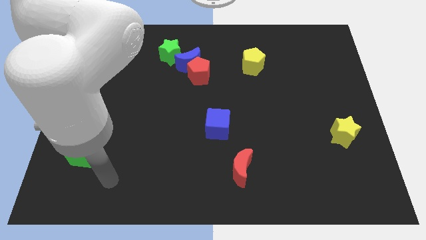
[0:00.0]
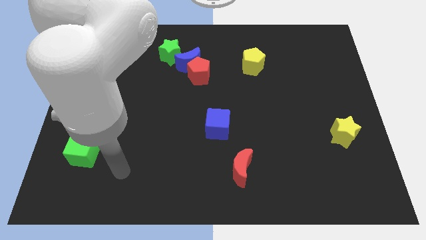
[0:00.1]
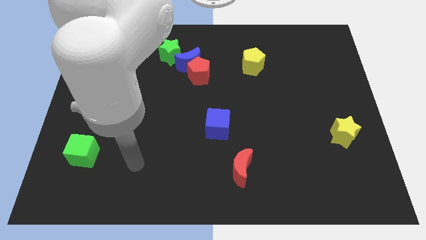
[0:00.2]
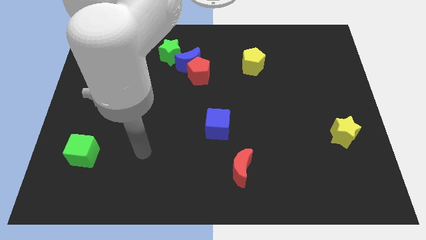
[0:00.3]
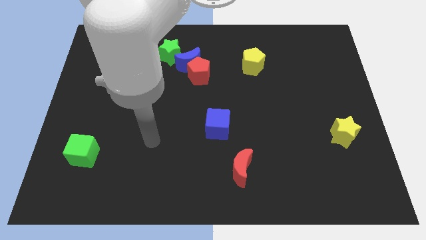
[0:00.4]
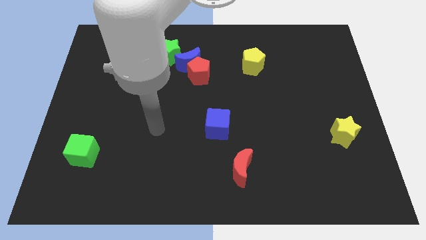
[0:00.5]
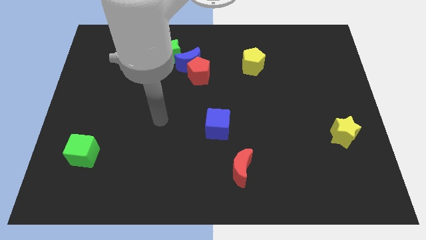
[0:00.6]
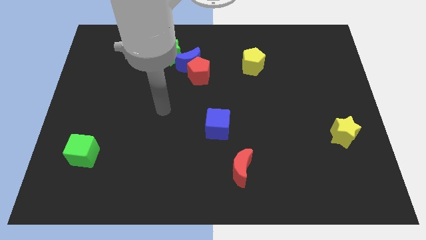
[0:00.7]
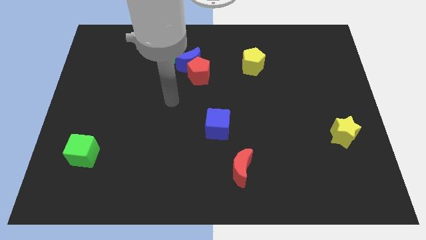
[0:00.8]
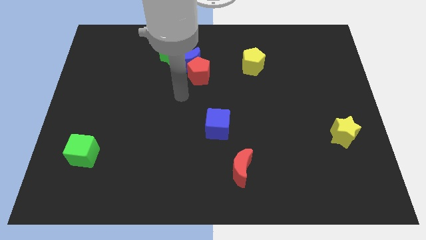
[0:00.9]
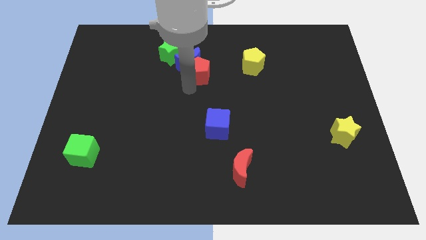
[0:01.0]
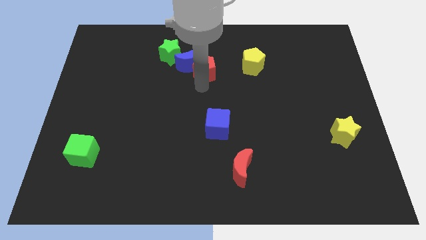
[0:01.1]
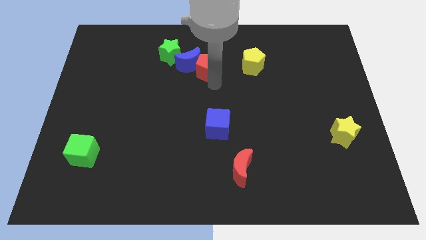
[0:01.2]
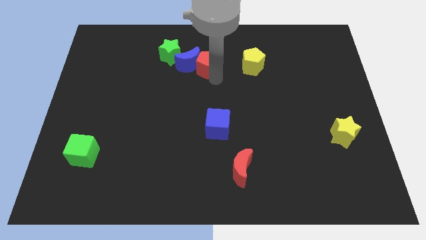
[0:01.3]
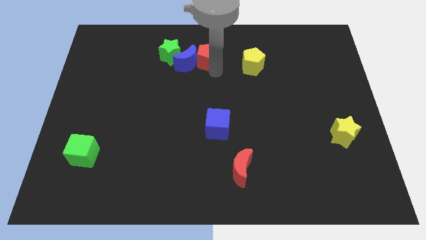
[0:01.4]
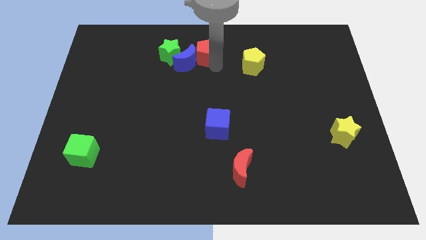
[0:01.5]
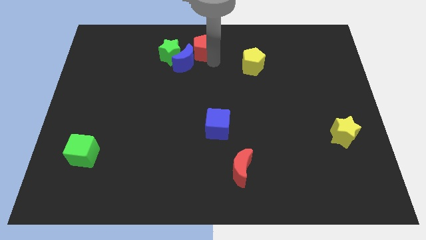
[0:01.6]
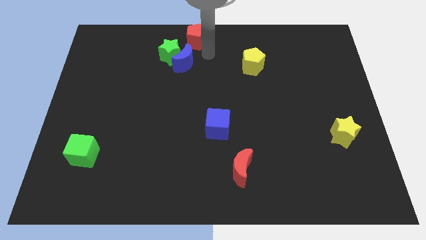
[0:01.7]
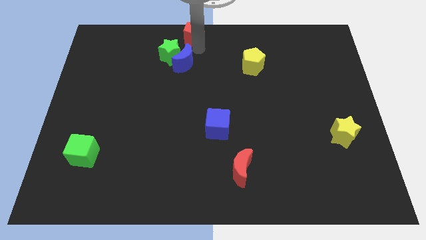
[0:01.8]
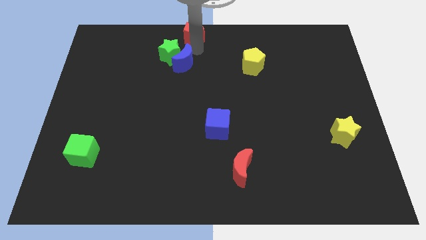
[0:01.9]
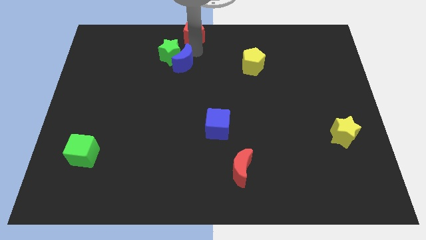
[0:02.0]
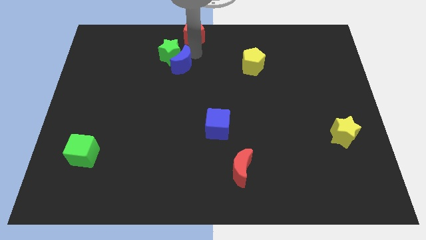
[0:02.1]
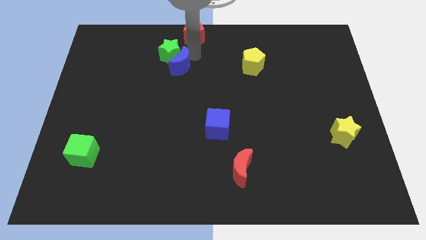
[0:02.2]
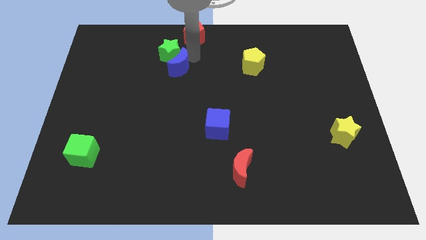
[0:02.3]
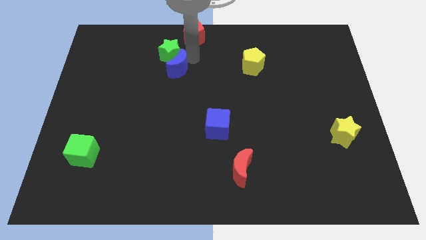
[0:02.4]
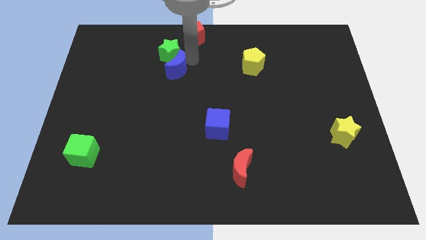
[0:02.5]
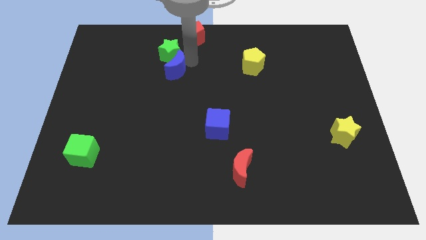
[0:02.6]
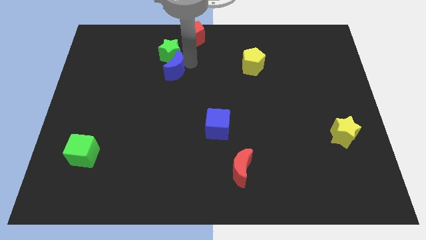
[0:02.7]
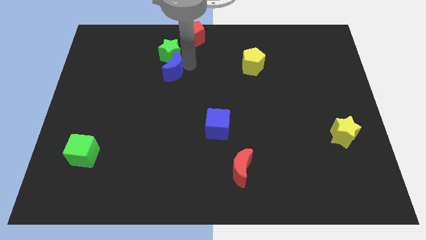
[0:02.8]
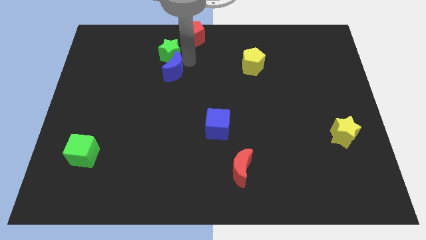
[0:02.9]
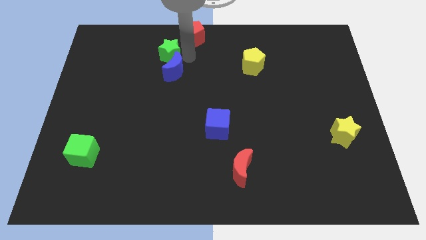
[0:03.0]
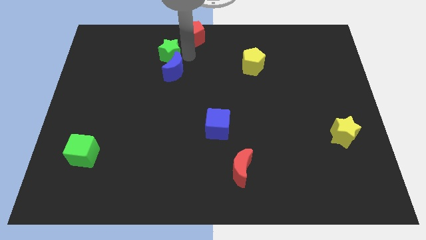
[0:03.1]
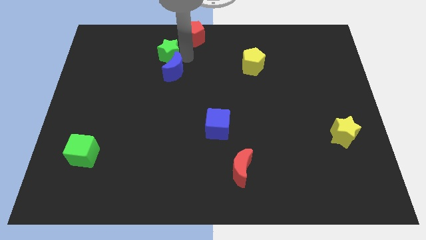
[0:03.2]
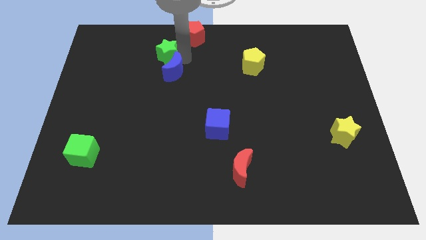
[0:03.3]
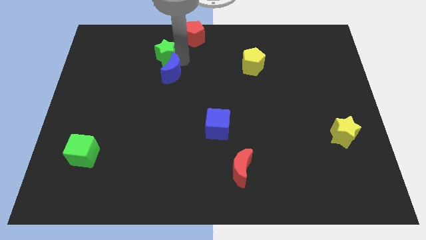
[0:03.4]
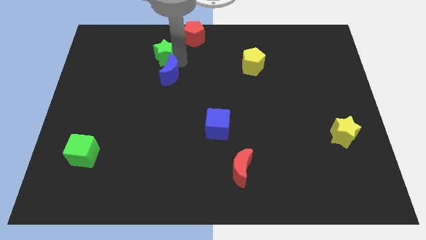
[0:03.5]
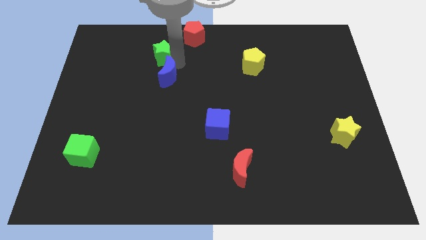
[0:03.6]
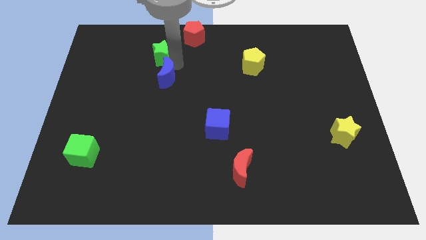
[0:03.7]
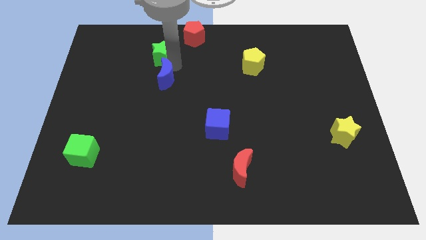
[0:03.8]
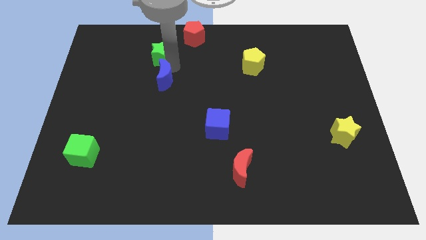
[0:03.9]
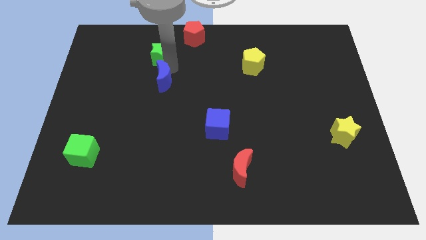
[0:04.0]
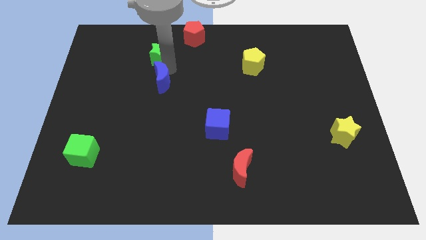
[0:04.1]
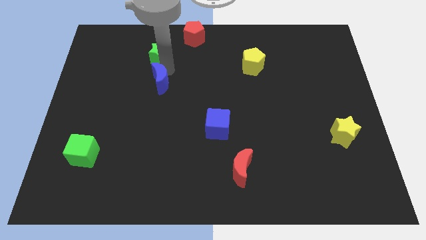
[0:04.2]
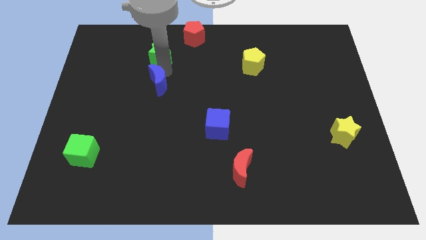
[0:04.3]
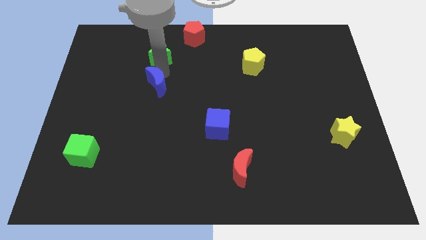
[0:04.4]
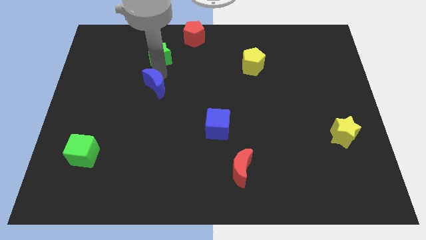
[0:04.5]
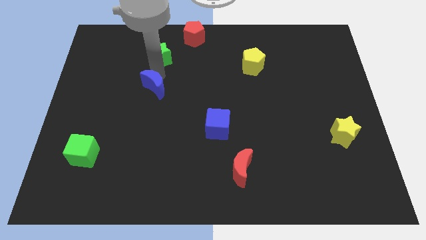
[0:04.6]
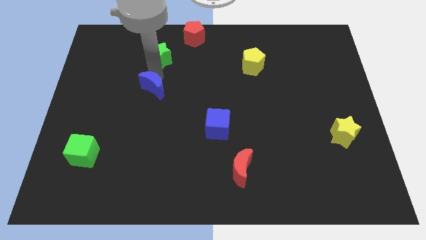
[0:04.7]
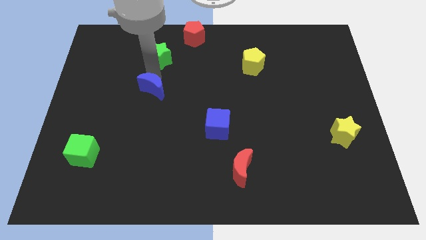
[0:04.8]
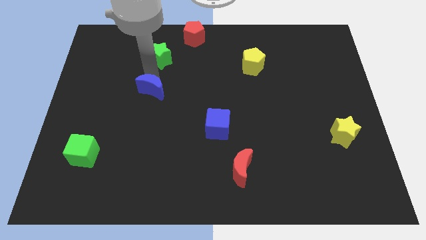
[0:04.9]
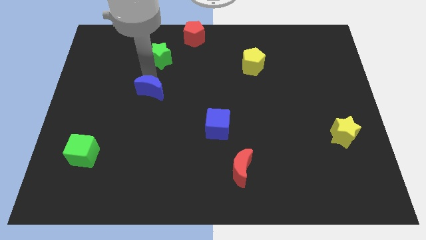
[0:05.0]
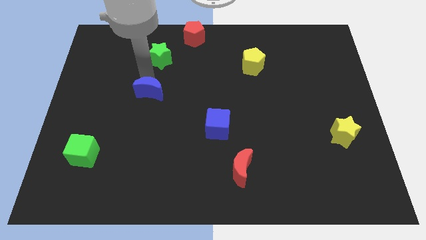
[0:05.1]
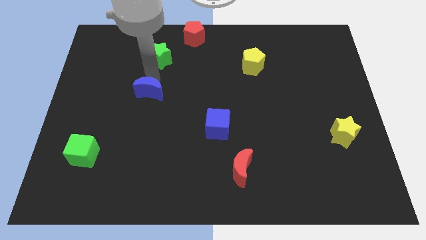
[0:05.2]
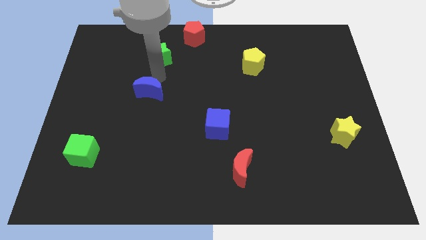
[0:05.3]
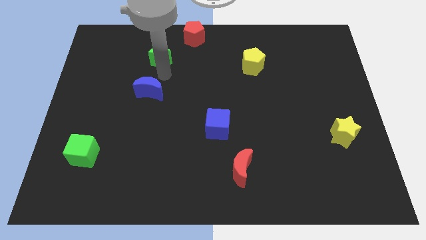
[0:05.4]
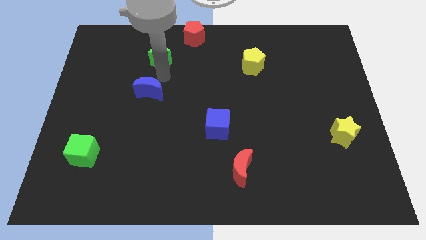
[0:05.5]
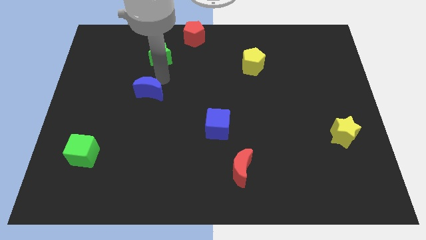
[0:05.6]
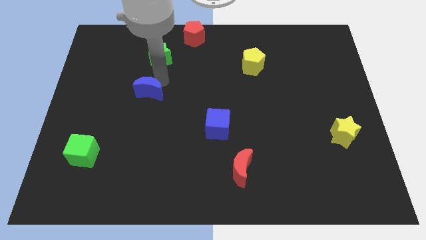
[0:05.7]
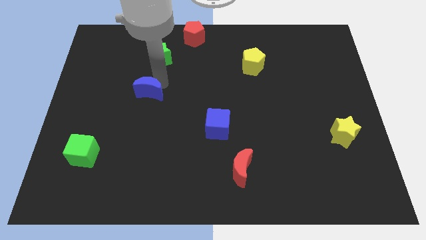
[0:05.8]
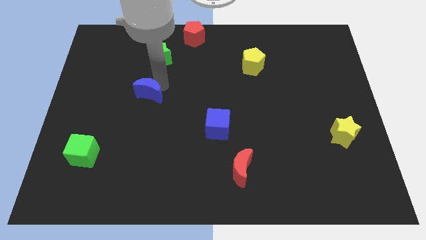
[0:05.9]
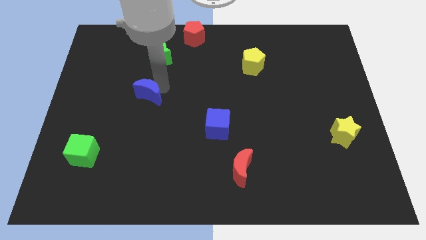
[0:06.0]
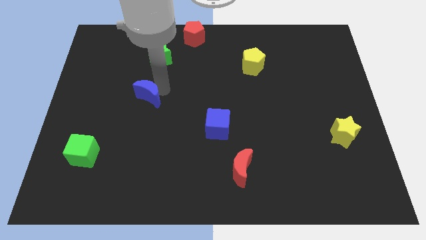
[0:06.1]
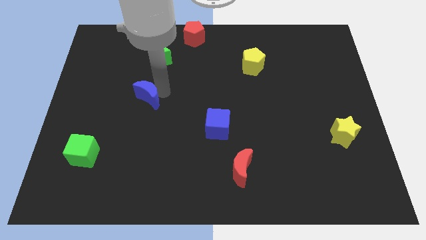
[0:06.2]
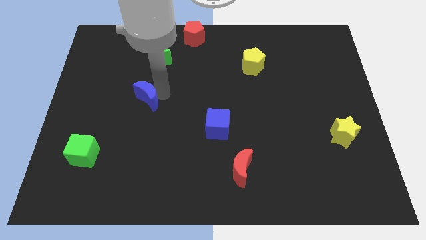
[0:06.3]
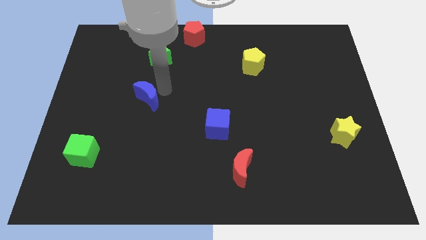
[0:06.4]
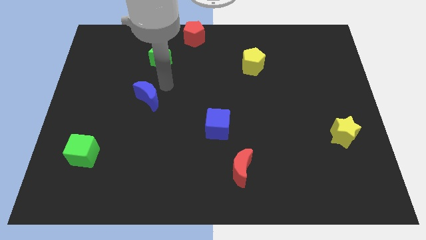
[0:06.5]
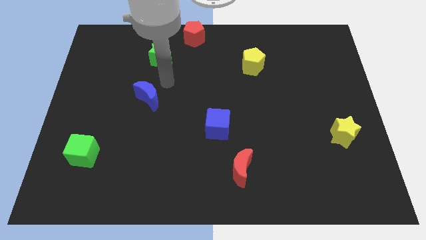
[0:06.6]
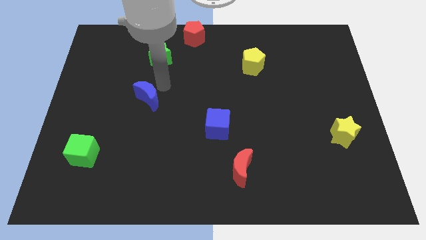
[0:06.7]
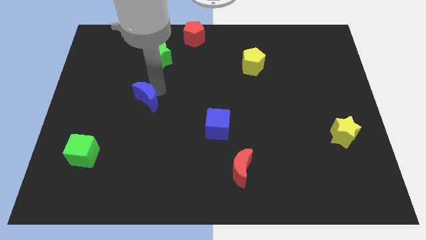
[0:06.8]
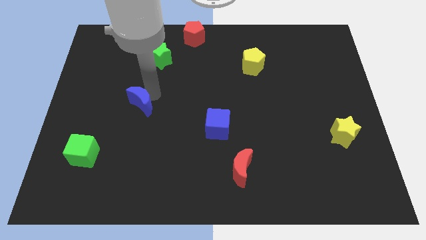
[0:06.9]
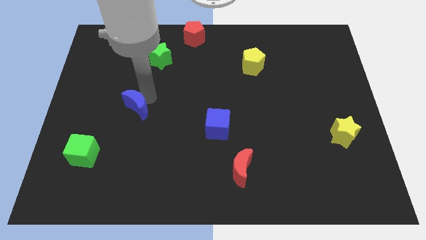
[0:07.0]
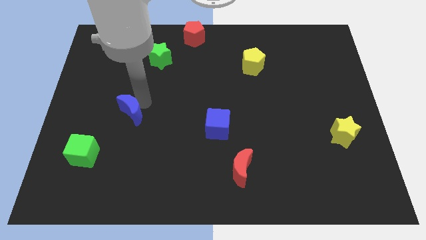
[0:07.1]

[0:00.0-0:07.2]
move the blue moon down and then left

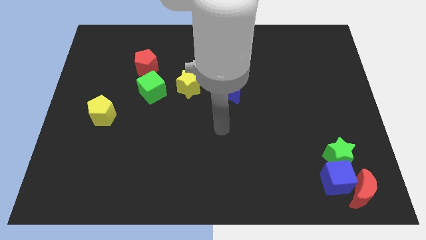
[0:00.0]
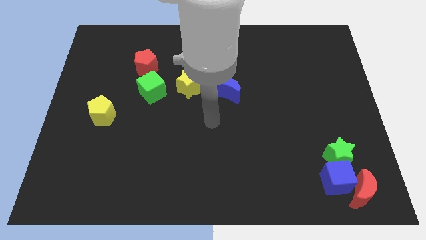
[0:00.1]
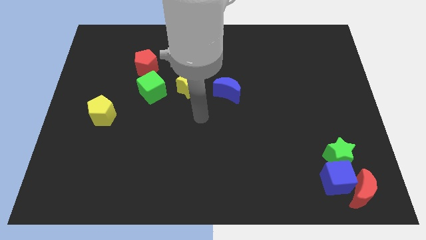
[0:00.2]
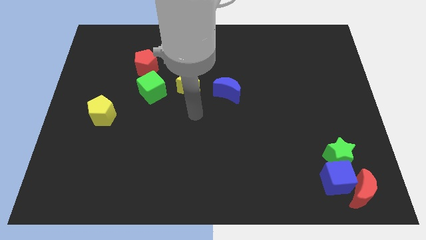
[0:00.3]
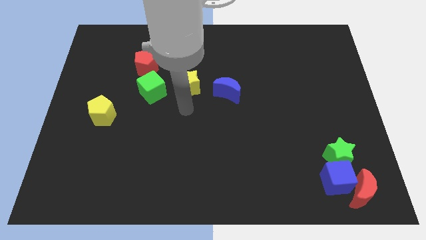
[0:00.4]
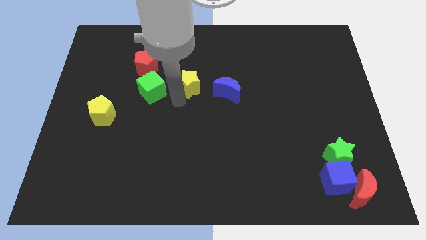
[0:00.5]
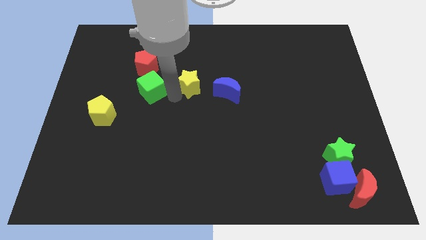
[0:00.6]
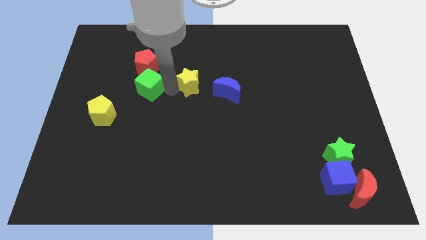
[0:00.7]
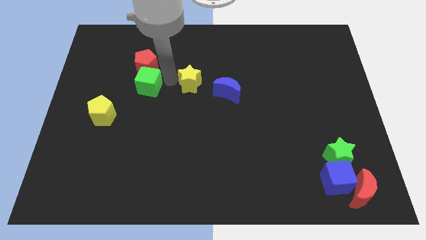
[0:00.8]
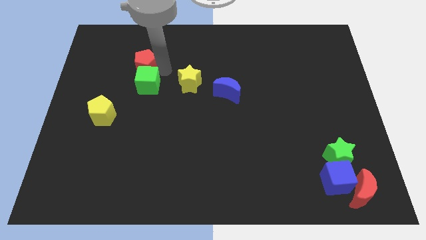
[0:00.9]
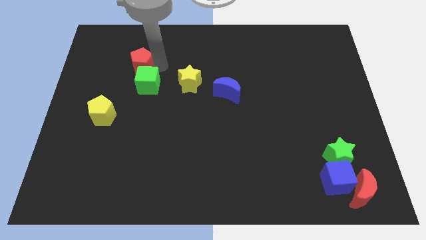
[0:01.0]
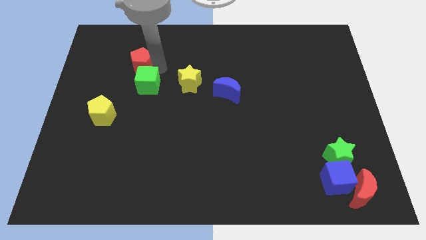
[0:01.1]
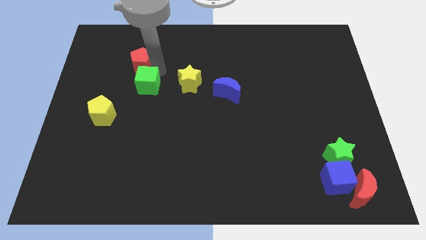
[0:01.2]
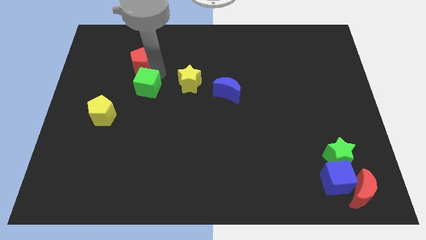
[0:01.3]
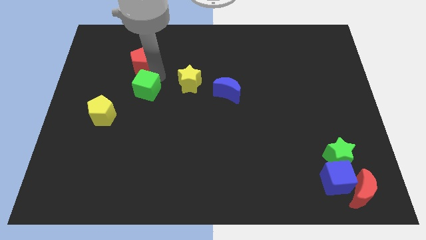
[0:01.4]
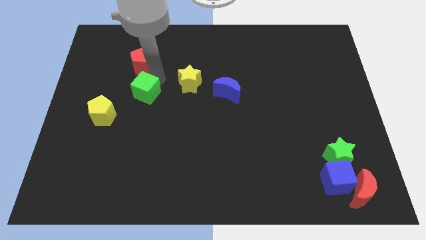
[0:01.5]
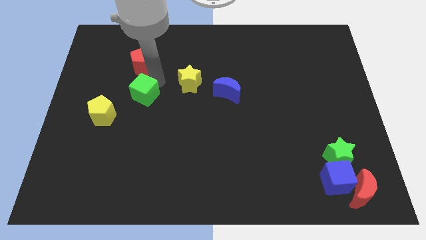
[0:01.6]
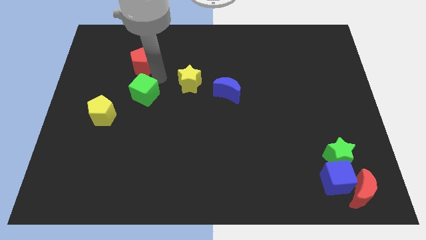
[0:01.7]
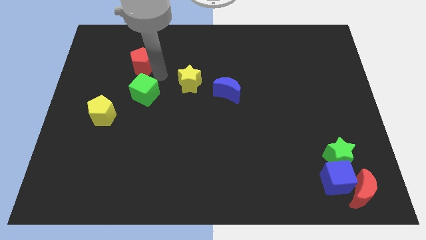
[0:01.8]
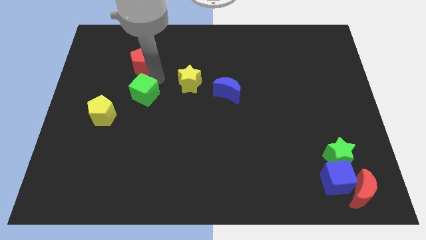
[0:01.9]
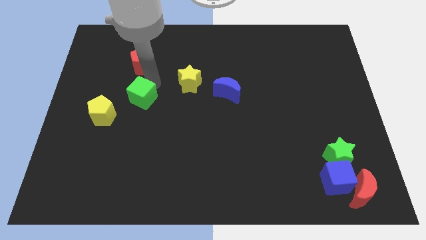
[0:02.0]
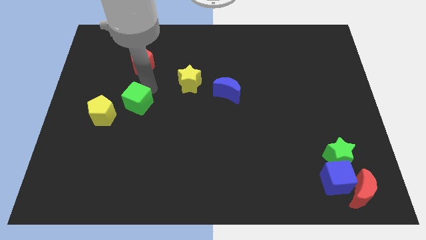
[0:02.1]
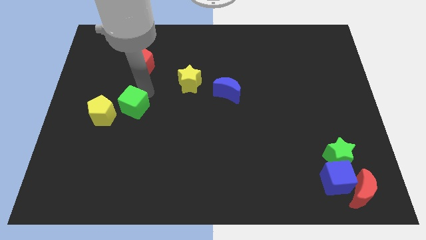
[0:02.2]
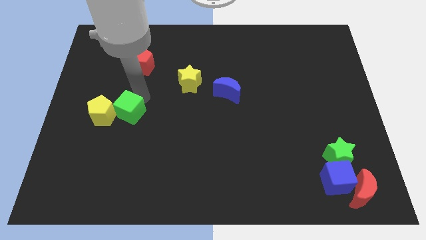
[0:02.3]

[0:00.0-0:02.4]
push the green cube diagonally down and to the left somewhat
